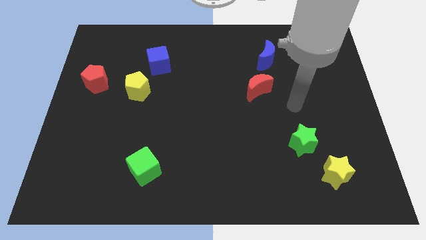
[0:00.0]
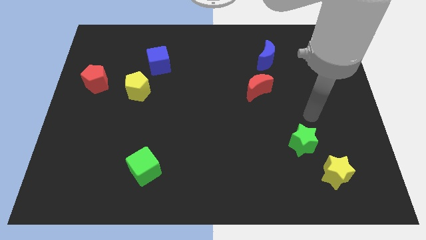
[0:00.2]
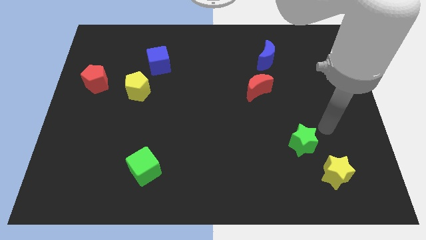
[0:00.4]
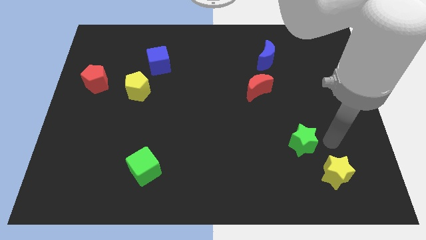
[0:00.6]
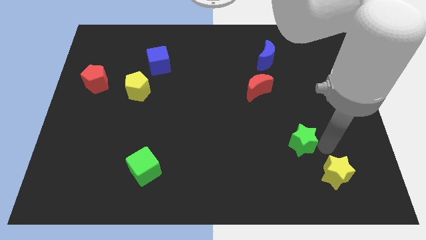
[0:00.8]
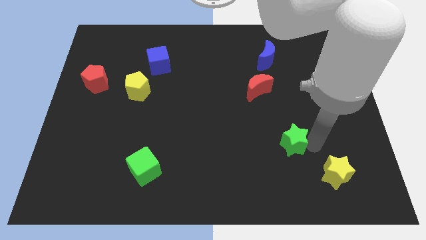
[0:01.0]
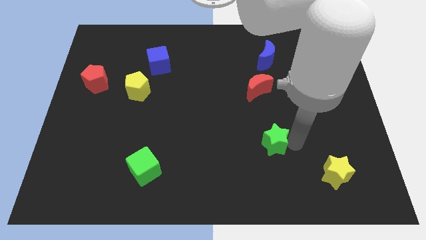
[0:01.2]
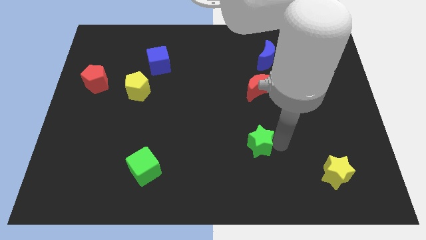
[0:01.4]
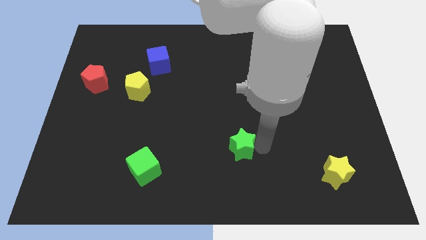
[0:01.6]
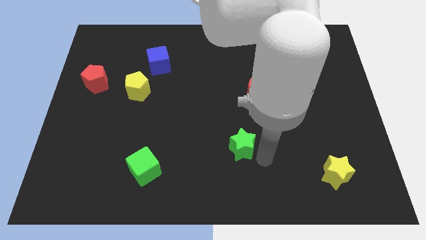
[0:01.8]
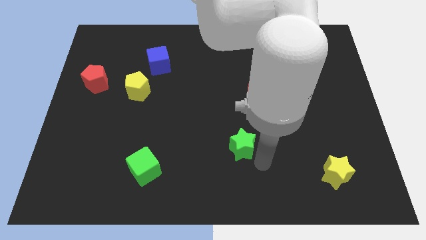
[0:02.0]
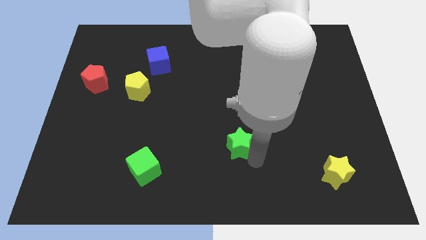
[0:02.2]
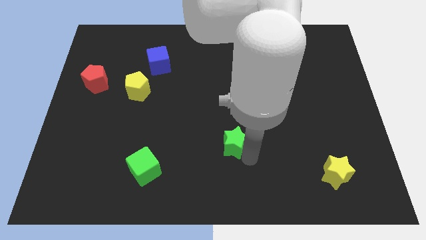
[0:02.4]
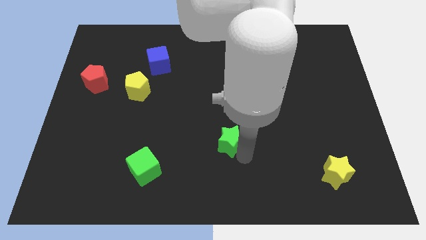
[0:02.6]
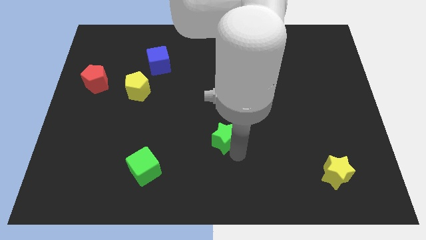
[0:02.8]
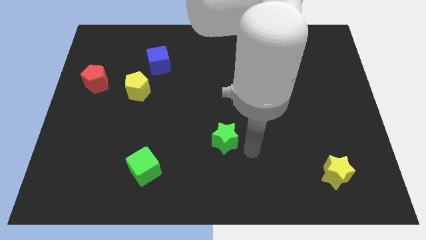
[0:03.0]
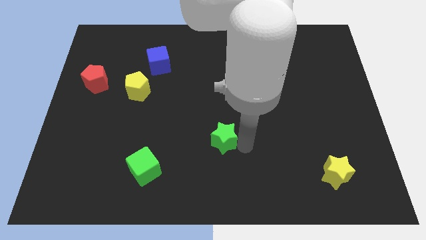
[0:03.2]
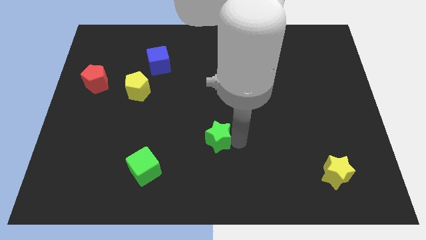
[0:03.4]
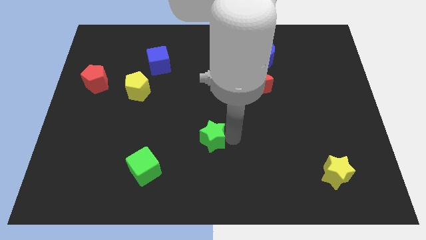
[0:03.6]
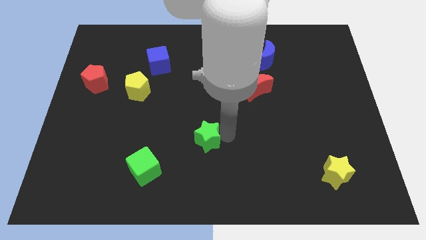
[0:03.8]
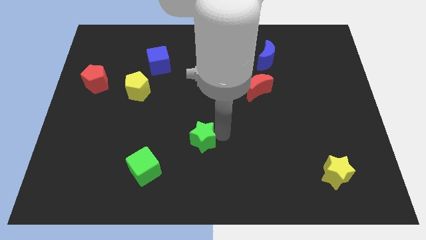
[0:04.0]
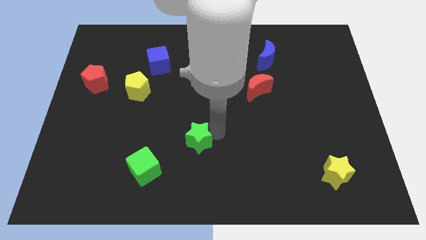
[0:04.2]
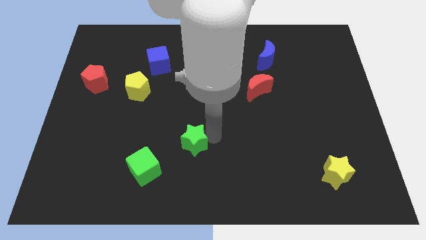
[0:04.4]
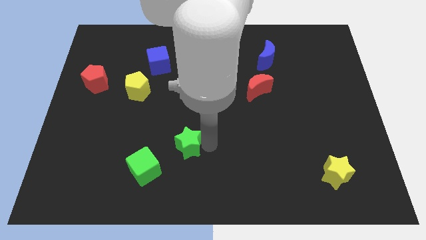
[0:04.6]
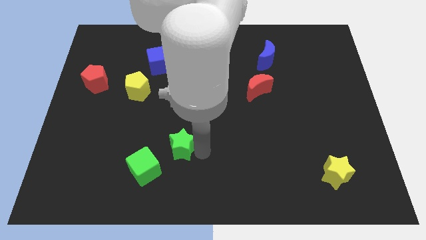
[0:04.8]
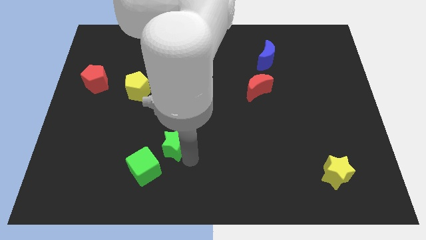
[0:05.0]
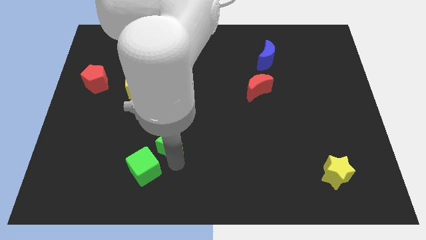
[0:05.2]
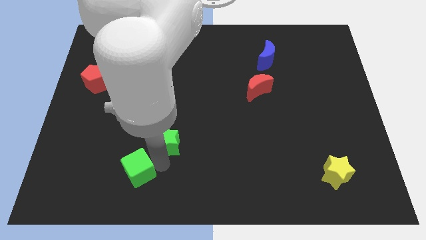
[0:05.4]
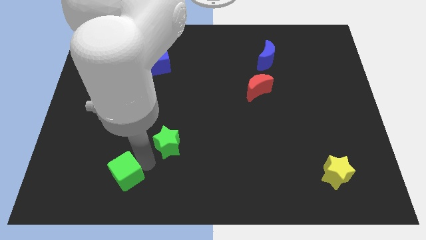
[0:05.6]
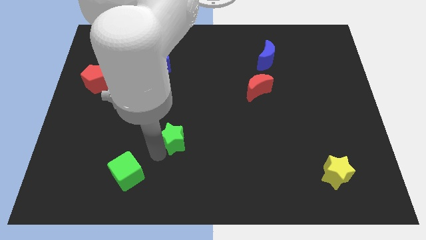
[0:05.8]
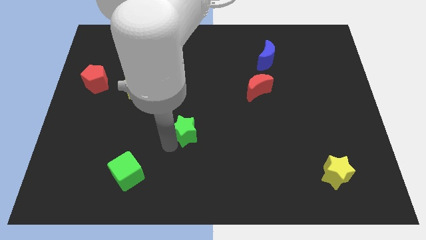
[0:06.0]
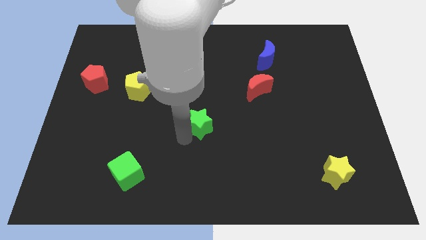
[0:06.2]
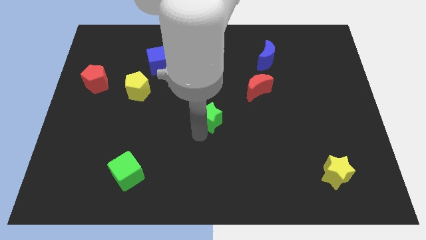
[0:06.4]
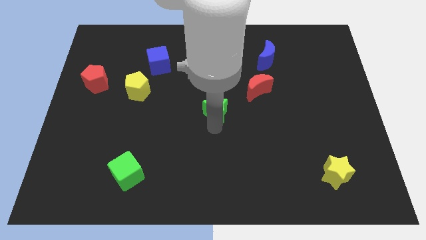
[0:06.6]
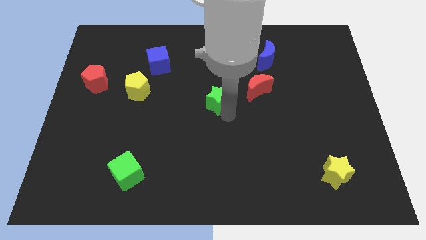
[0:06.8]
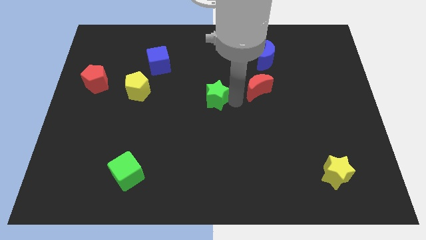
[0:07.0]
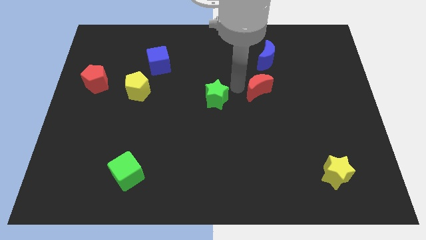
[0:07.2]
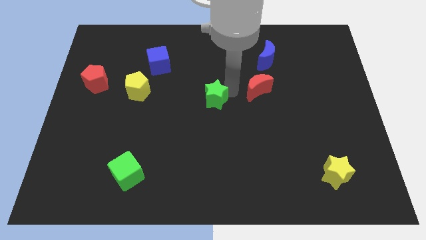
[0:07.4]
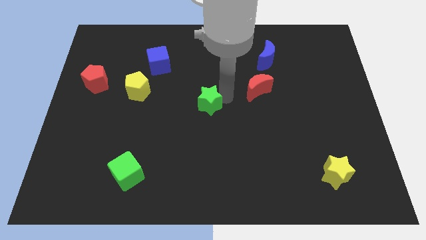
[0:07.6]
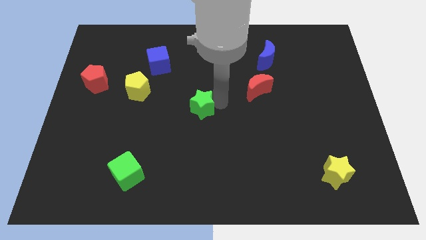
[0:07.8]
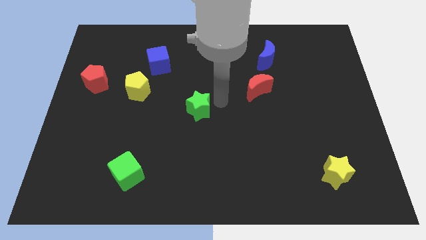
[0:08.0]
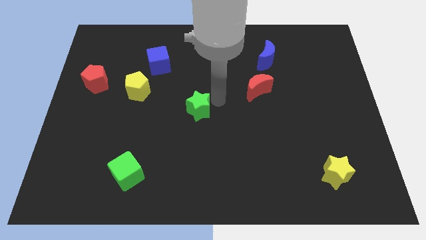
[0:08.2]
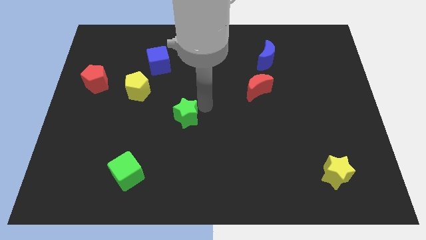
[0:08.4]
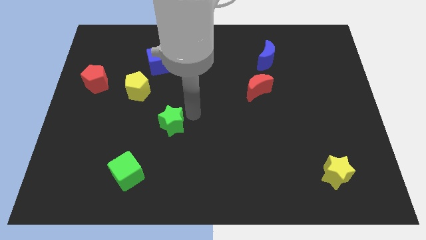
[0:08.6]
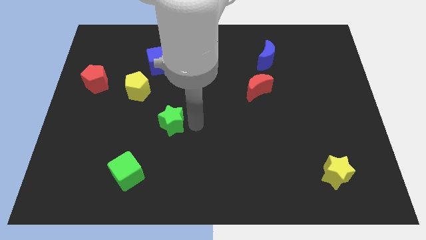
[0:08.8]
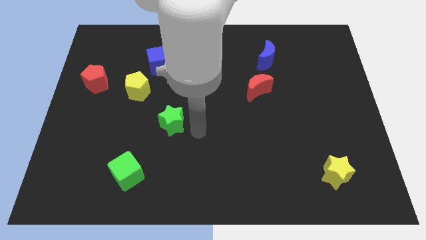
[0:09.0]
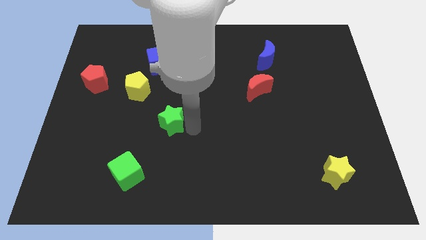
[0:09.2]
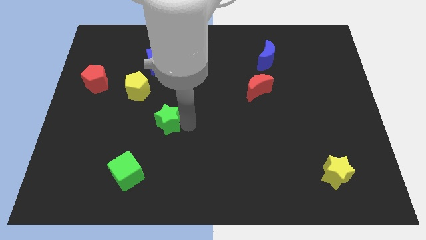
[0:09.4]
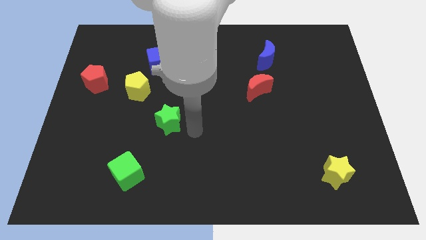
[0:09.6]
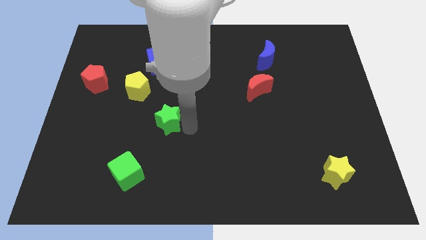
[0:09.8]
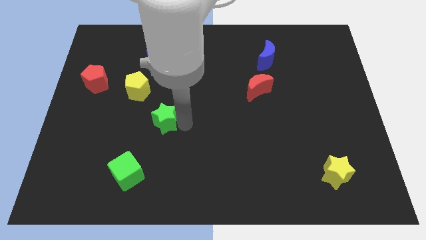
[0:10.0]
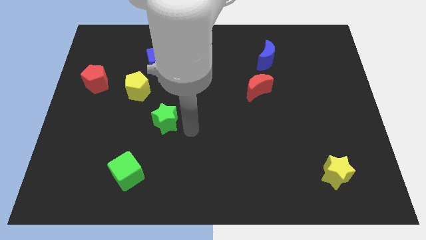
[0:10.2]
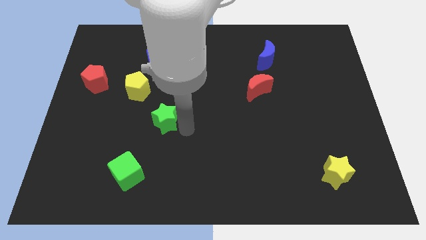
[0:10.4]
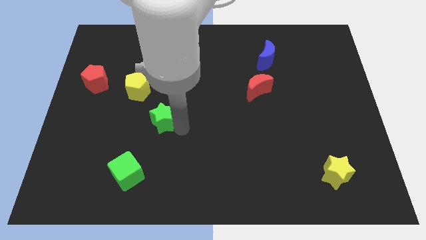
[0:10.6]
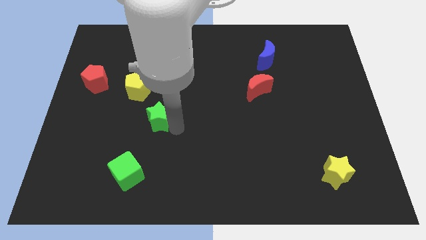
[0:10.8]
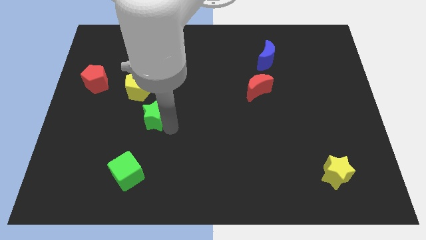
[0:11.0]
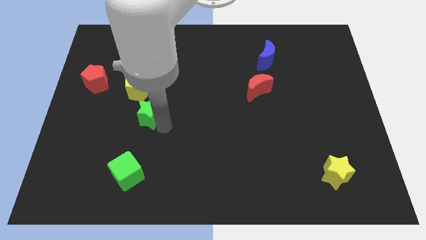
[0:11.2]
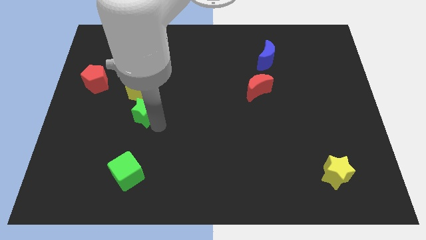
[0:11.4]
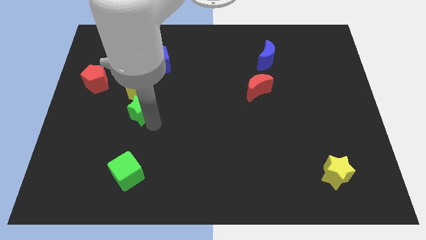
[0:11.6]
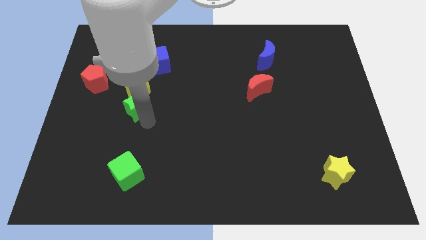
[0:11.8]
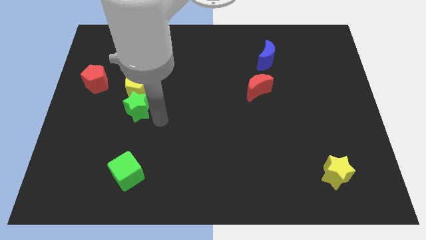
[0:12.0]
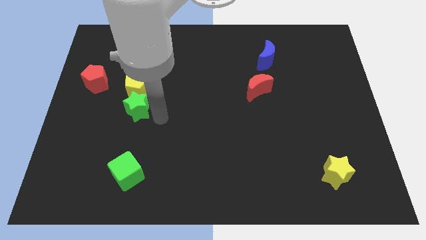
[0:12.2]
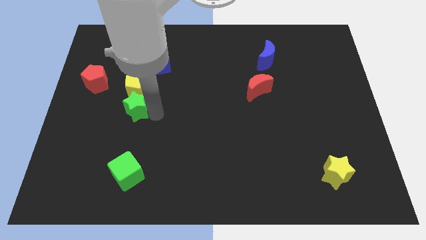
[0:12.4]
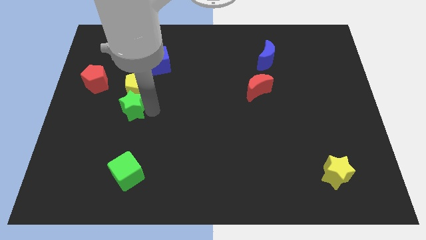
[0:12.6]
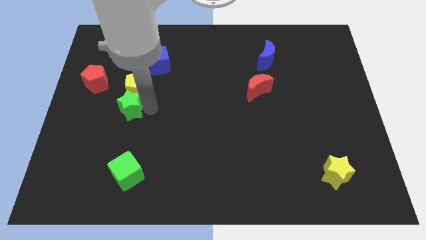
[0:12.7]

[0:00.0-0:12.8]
move the green star to the bottom right of the red pentagon

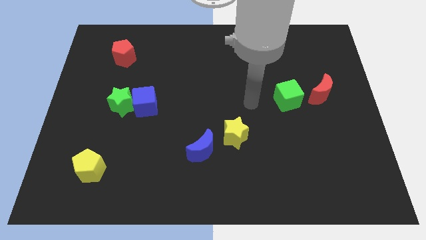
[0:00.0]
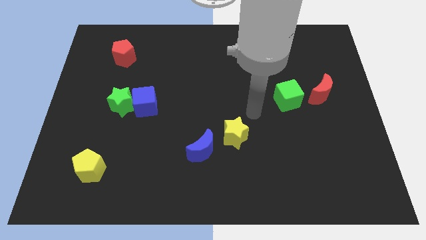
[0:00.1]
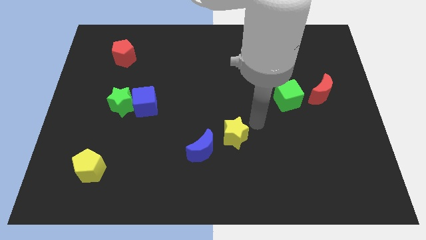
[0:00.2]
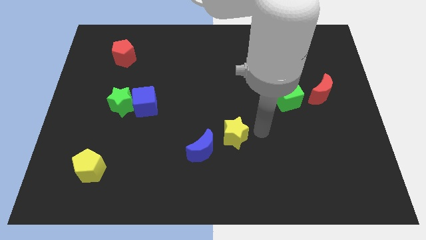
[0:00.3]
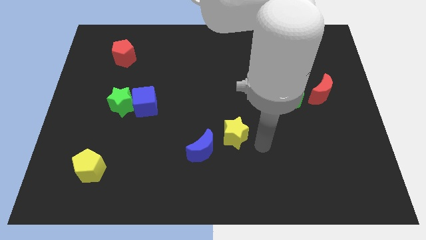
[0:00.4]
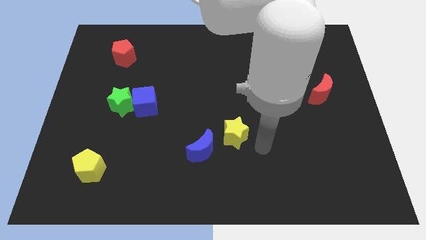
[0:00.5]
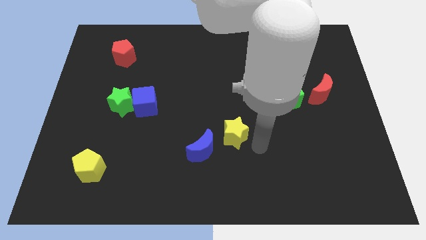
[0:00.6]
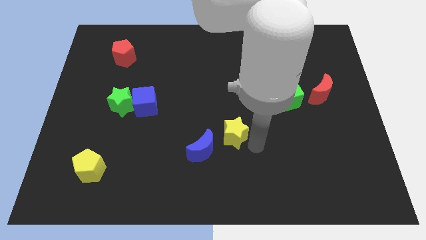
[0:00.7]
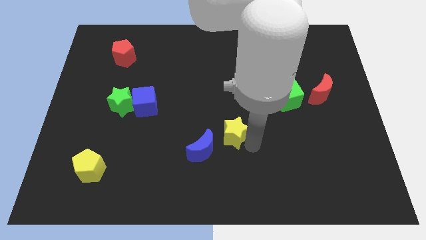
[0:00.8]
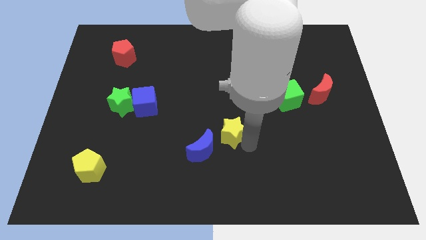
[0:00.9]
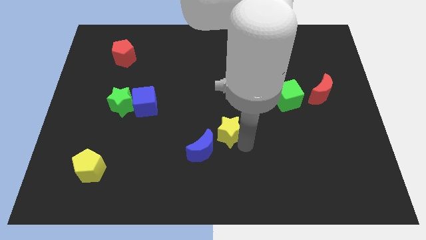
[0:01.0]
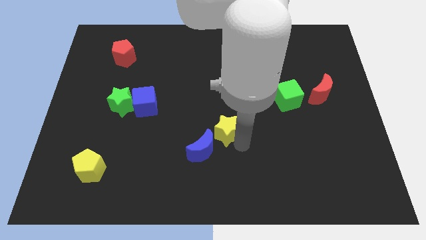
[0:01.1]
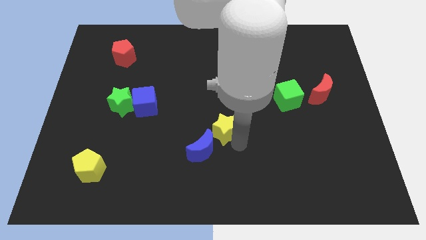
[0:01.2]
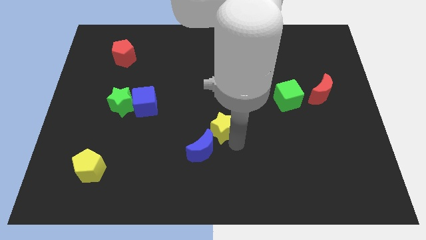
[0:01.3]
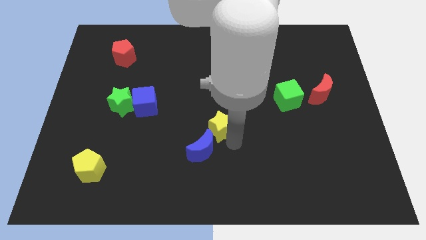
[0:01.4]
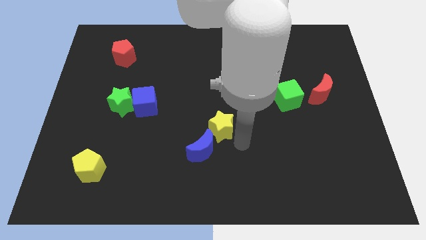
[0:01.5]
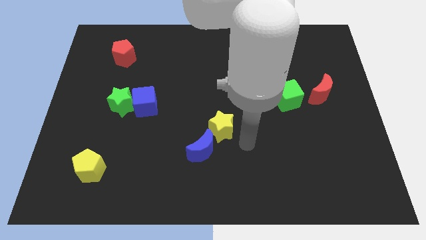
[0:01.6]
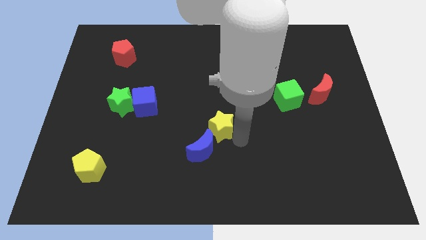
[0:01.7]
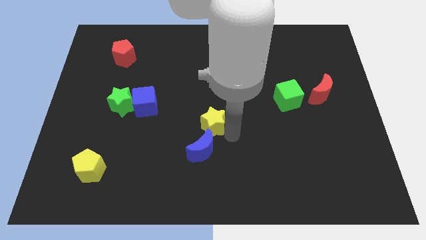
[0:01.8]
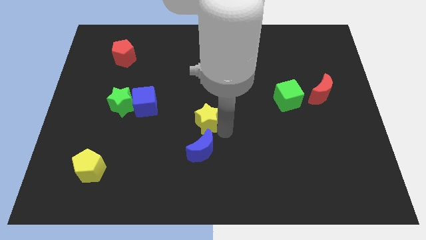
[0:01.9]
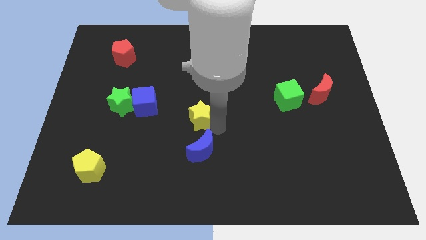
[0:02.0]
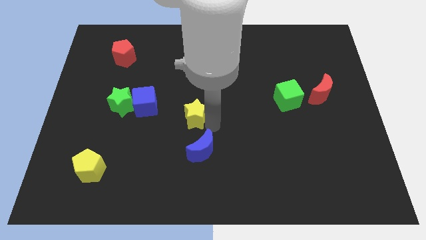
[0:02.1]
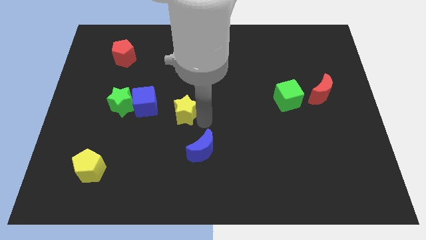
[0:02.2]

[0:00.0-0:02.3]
push the yellow star to the right of the green star
